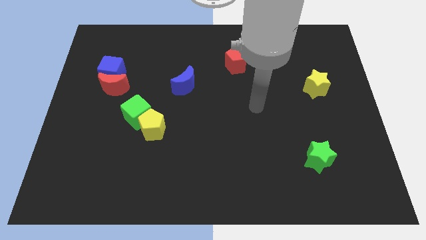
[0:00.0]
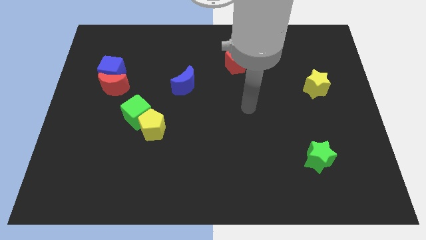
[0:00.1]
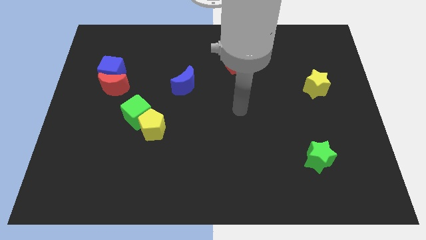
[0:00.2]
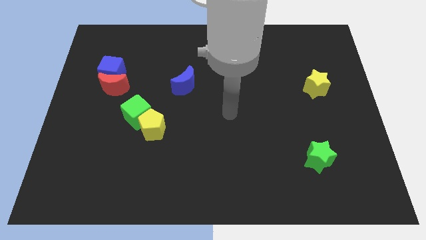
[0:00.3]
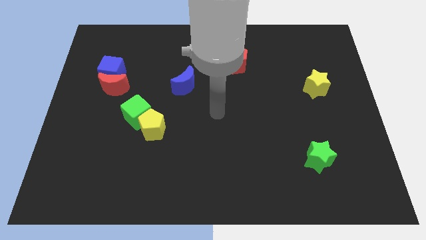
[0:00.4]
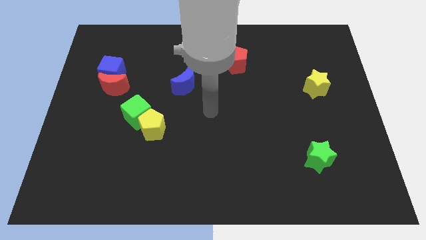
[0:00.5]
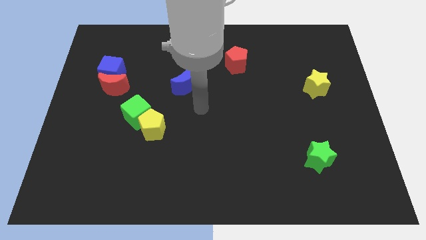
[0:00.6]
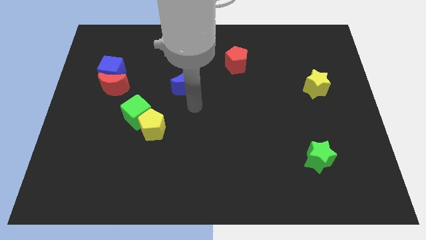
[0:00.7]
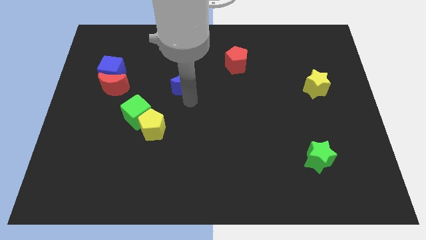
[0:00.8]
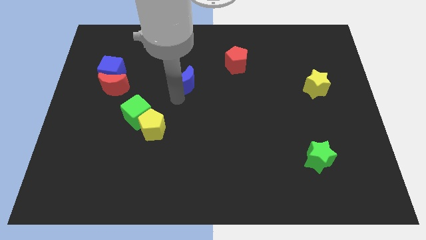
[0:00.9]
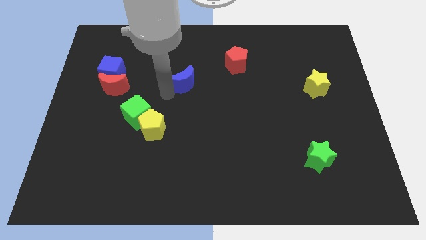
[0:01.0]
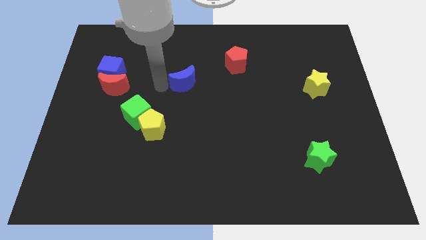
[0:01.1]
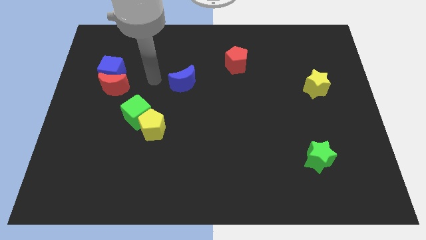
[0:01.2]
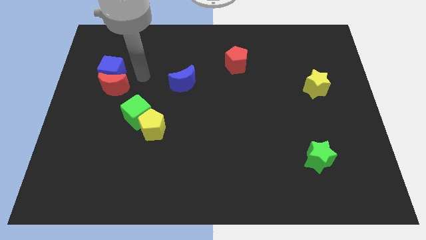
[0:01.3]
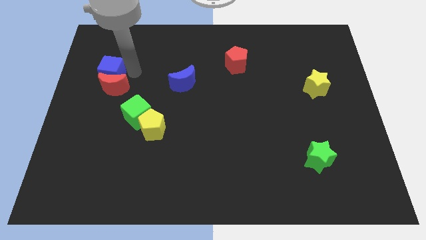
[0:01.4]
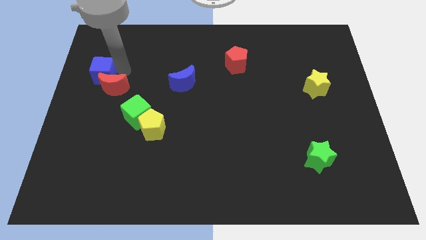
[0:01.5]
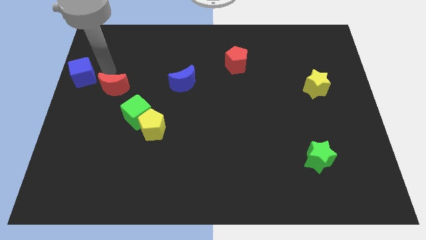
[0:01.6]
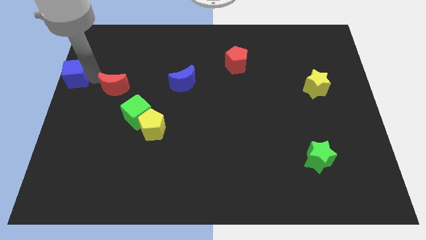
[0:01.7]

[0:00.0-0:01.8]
pull the red moon apart from the blue cube

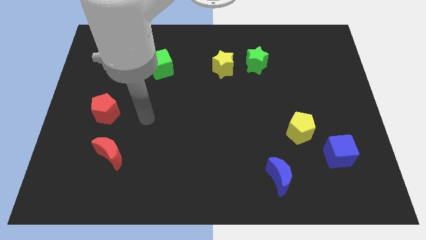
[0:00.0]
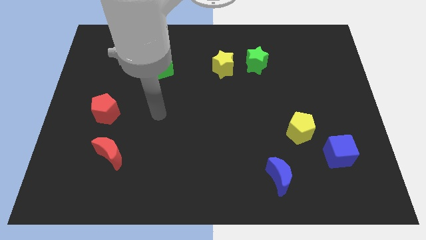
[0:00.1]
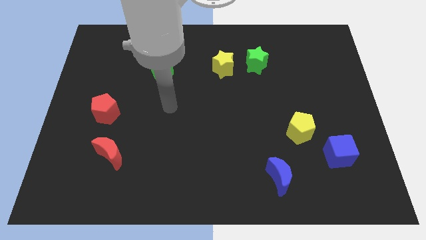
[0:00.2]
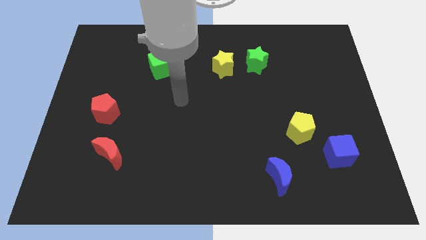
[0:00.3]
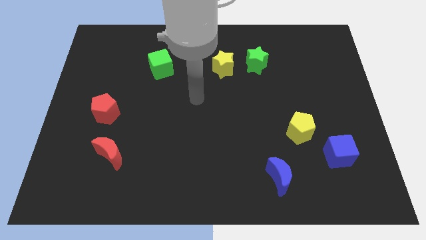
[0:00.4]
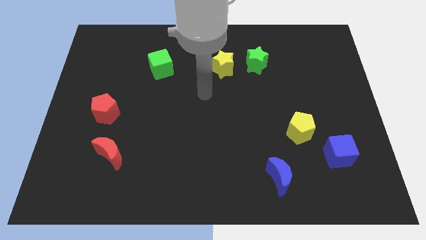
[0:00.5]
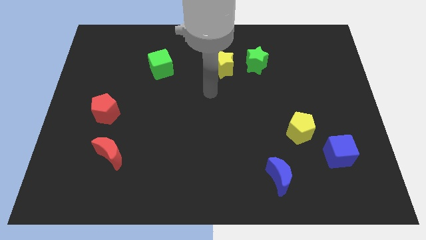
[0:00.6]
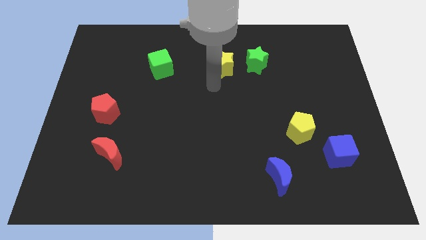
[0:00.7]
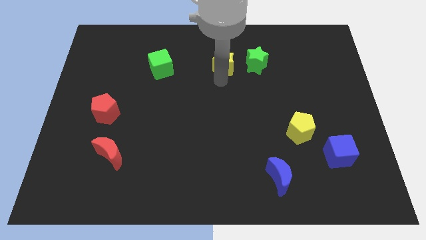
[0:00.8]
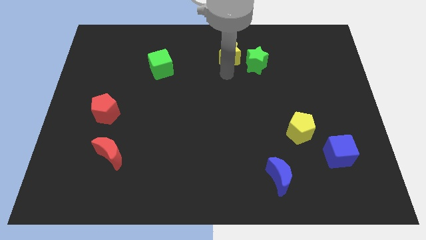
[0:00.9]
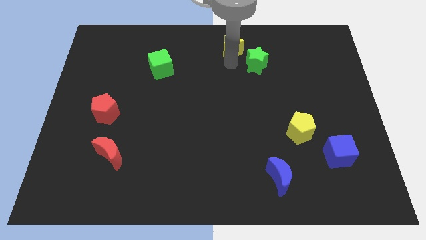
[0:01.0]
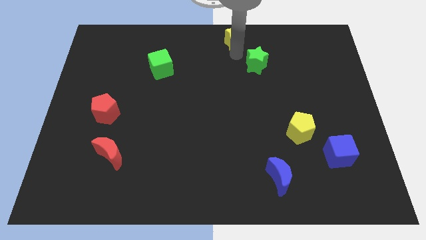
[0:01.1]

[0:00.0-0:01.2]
move the green star away from the yellow star

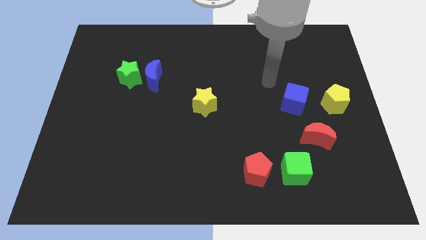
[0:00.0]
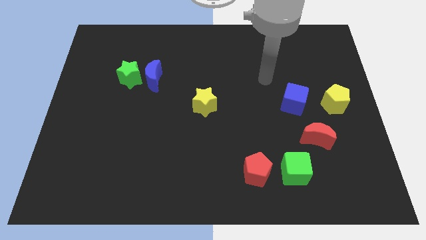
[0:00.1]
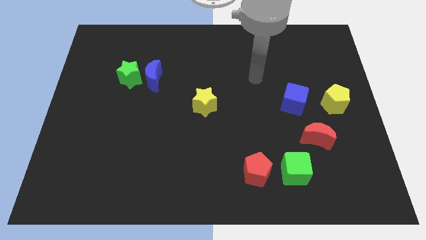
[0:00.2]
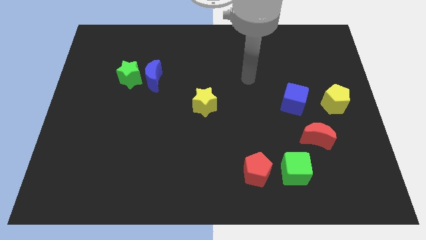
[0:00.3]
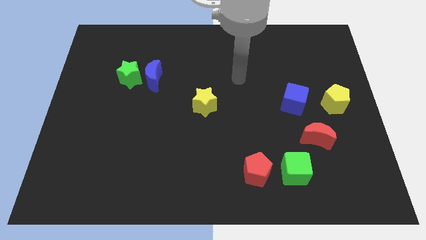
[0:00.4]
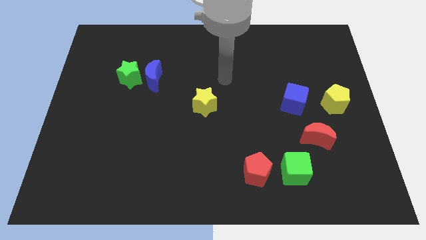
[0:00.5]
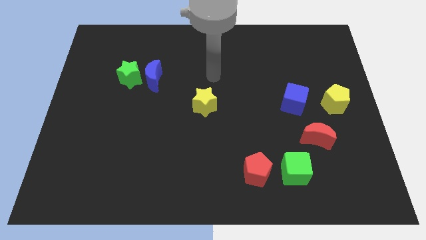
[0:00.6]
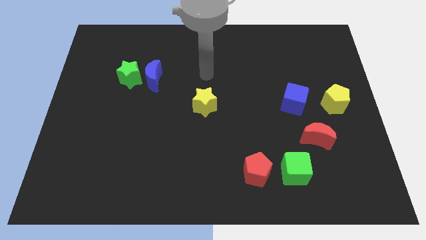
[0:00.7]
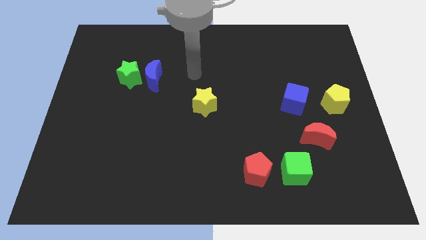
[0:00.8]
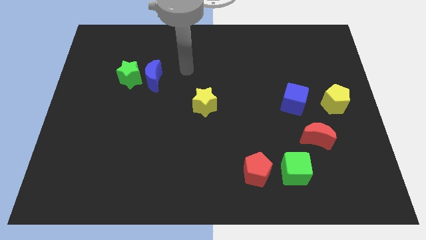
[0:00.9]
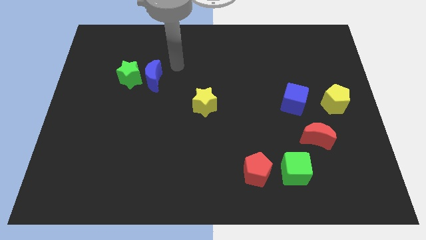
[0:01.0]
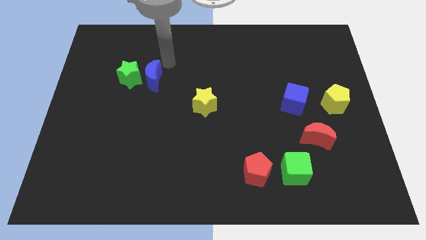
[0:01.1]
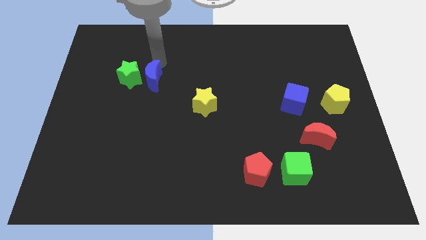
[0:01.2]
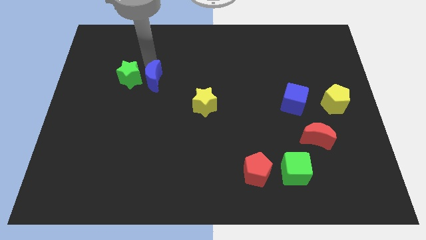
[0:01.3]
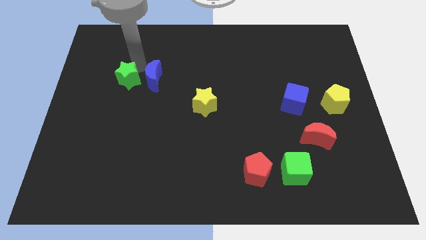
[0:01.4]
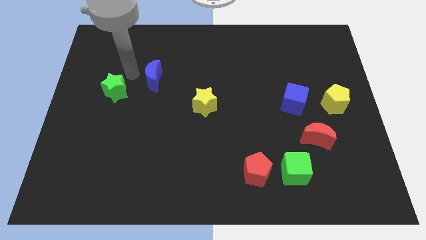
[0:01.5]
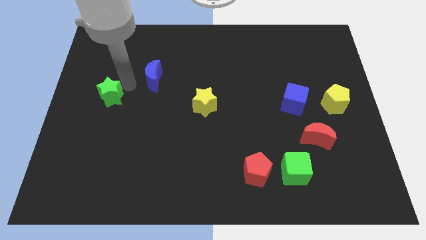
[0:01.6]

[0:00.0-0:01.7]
separate the blue moon from the green star

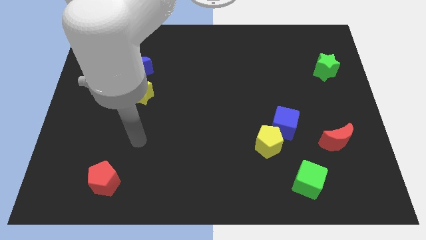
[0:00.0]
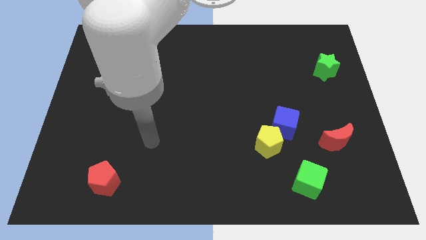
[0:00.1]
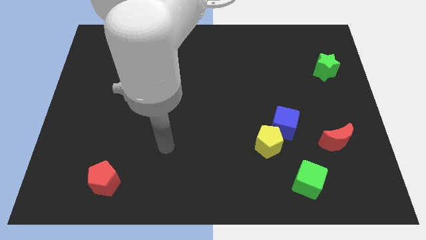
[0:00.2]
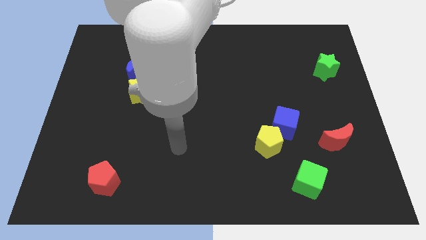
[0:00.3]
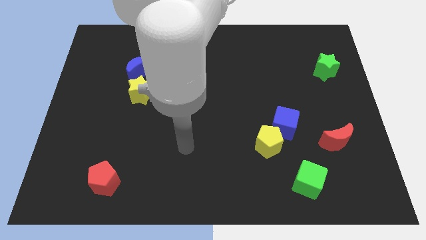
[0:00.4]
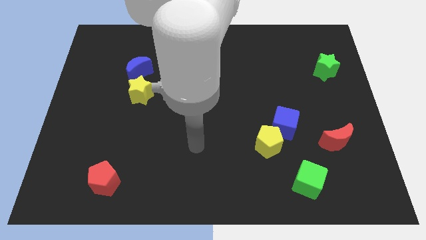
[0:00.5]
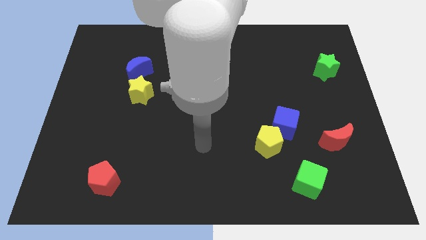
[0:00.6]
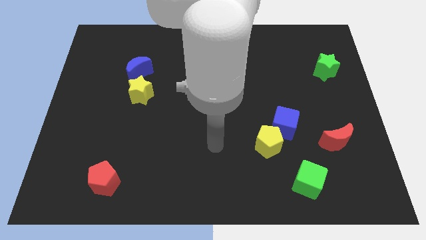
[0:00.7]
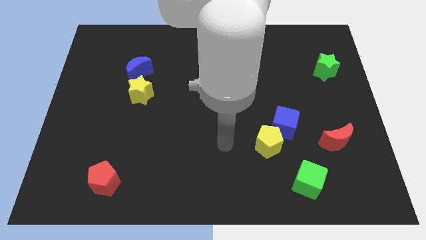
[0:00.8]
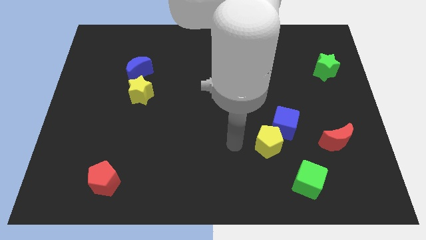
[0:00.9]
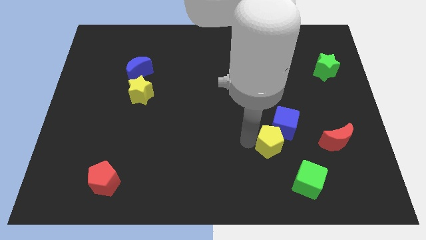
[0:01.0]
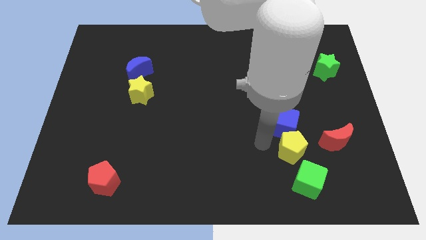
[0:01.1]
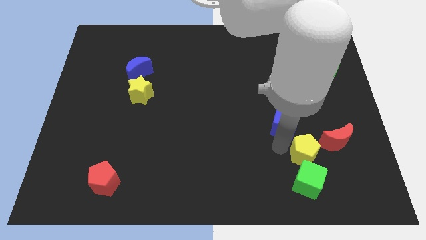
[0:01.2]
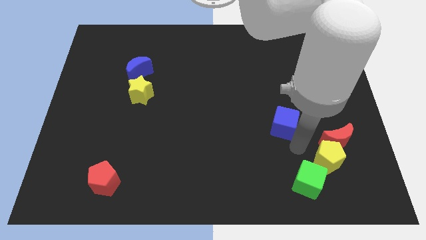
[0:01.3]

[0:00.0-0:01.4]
move the blue cube away from the yellow pentagon

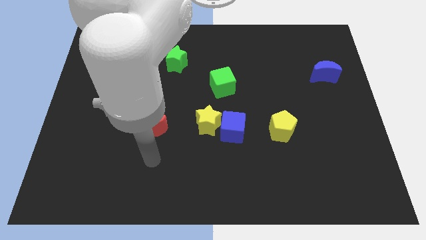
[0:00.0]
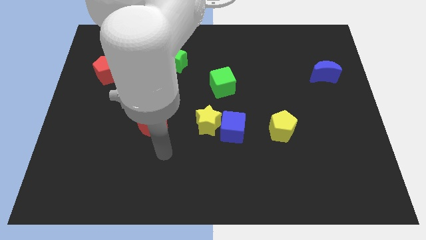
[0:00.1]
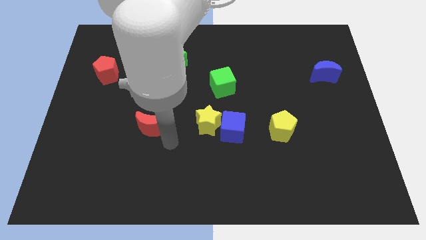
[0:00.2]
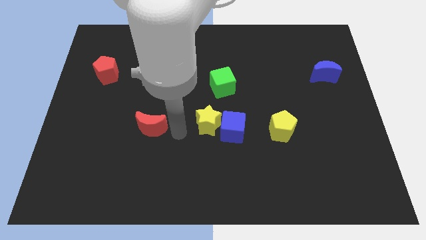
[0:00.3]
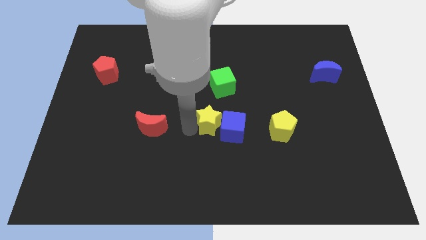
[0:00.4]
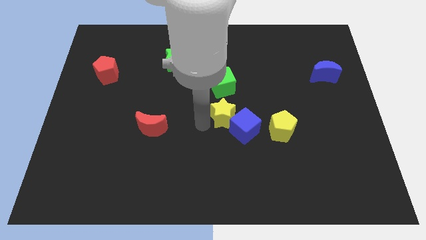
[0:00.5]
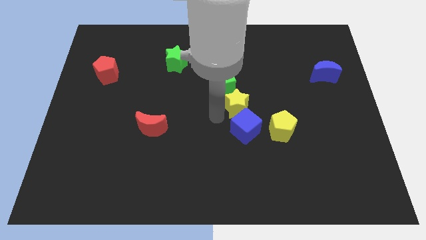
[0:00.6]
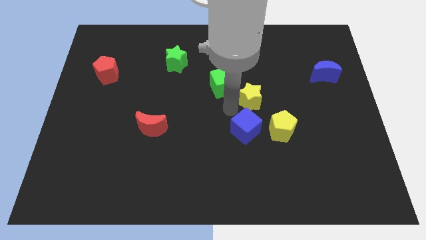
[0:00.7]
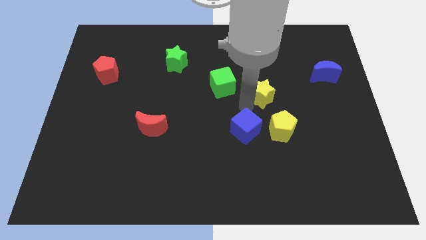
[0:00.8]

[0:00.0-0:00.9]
move the blue cube away from the yellow star

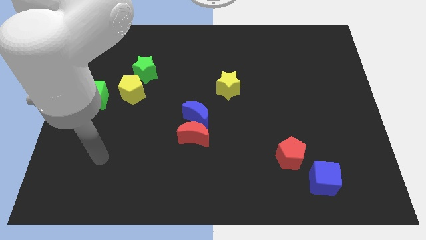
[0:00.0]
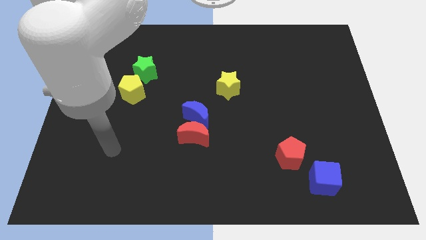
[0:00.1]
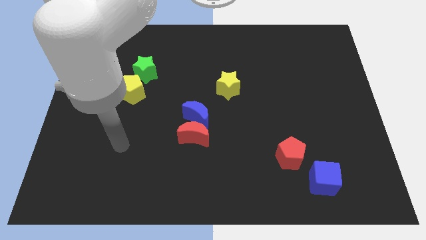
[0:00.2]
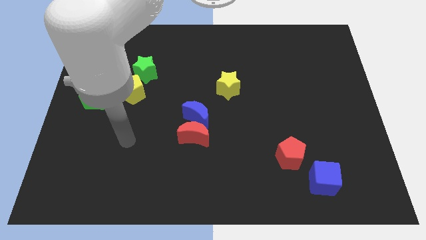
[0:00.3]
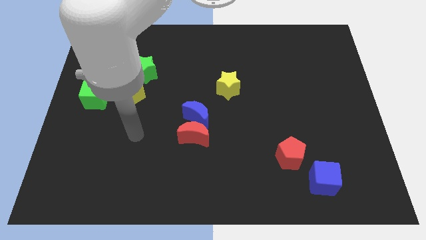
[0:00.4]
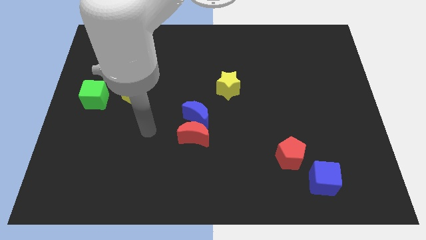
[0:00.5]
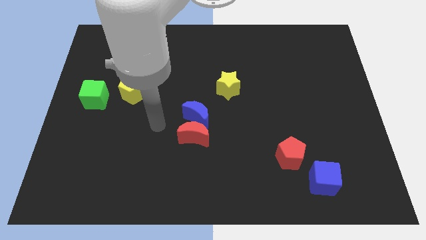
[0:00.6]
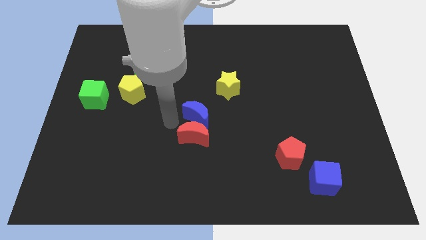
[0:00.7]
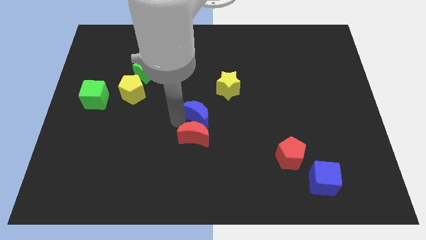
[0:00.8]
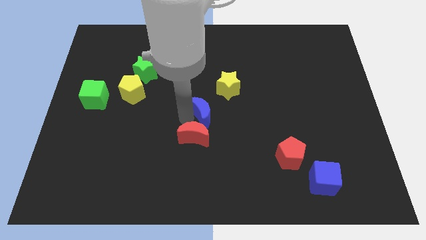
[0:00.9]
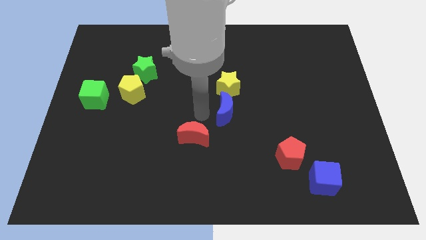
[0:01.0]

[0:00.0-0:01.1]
move the red moon away from the blue moon

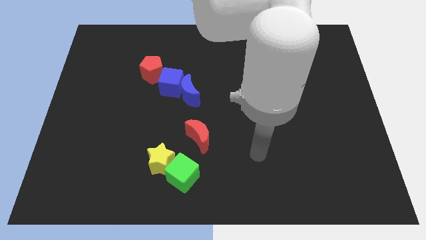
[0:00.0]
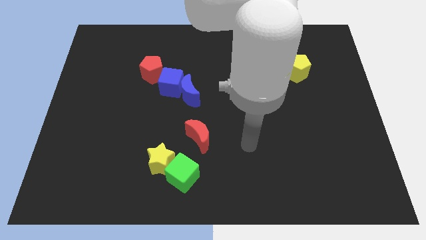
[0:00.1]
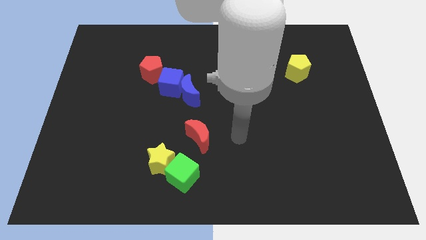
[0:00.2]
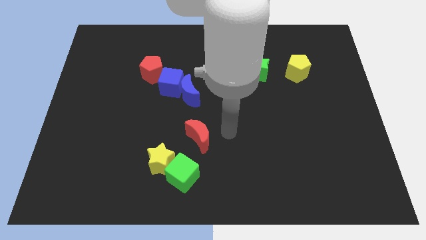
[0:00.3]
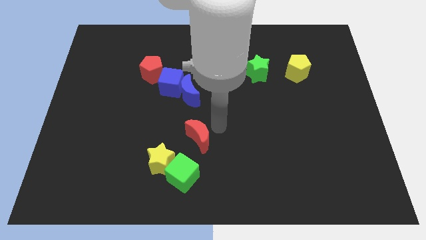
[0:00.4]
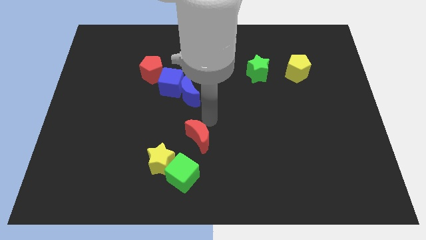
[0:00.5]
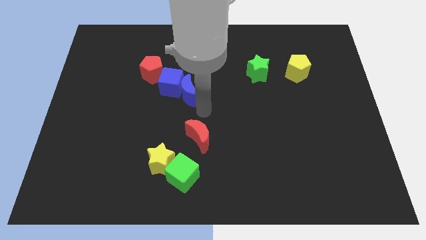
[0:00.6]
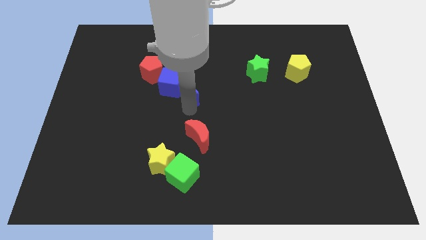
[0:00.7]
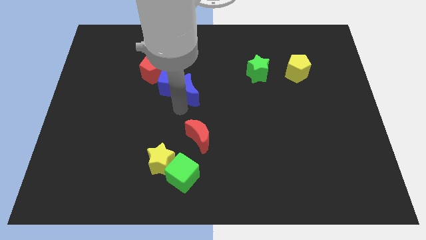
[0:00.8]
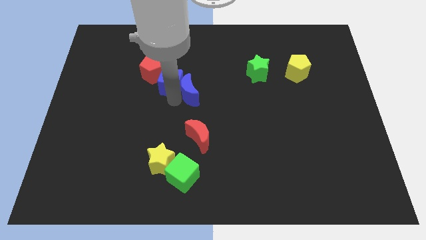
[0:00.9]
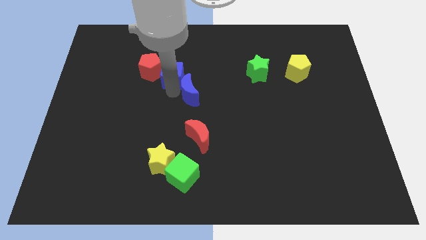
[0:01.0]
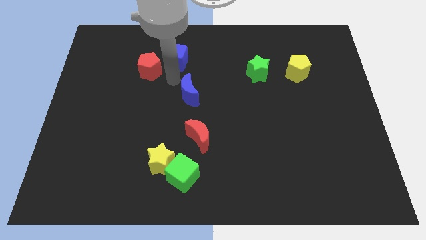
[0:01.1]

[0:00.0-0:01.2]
separate the blue moon from the blue cube
